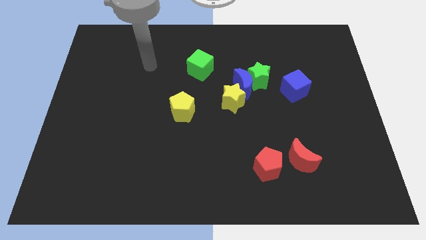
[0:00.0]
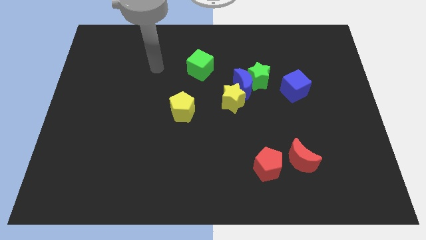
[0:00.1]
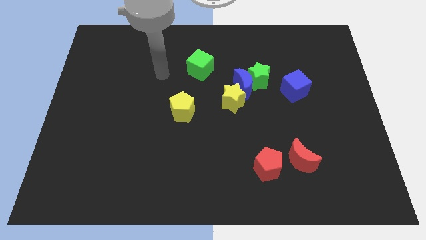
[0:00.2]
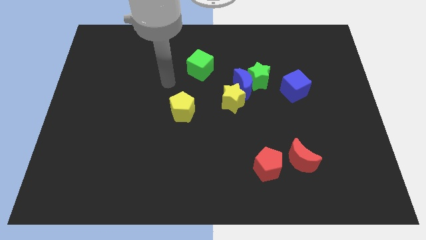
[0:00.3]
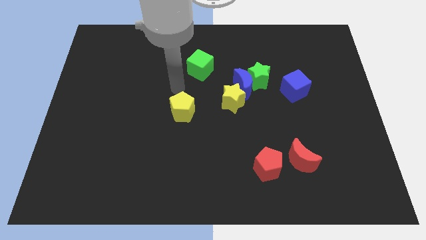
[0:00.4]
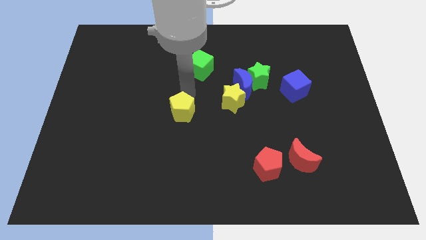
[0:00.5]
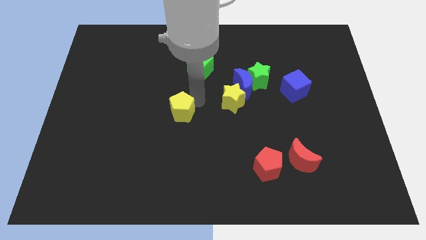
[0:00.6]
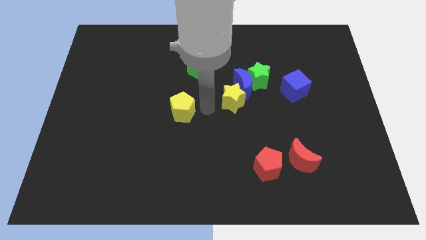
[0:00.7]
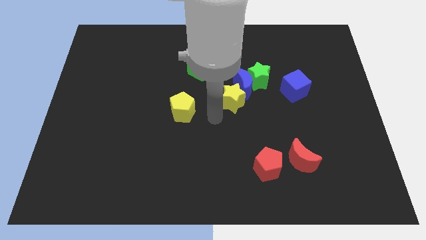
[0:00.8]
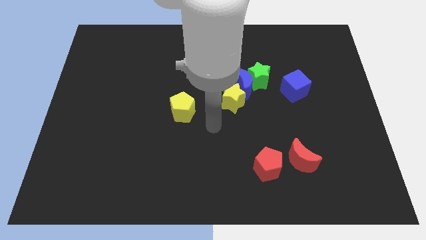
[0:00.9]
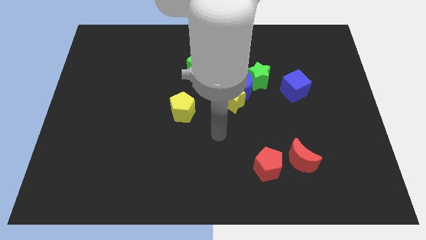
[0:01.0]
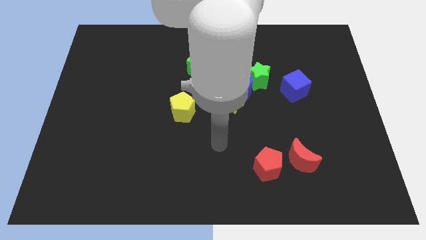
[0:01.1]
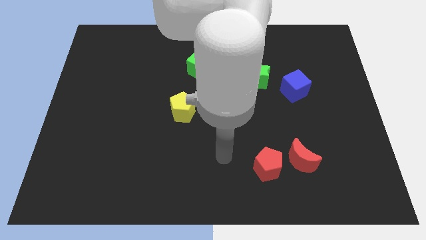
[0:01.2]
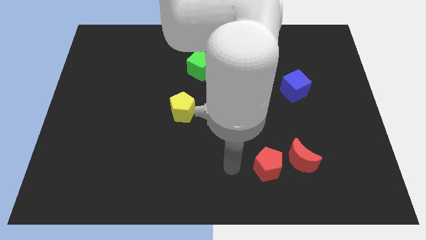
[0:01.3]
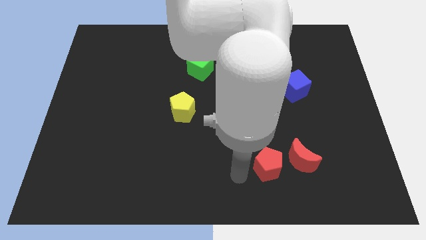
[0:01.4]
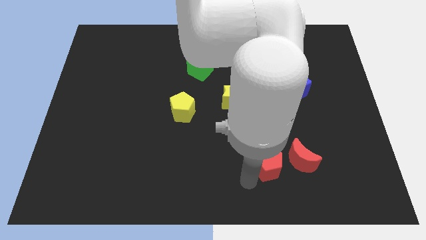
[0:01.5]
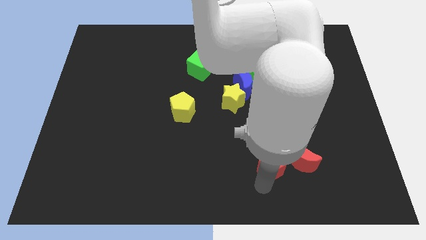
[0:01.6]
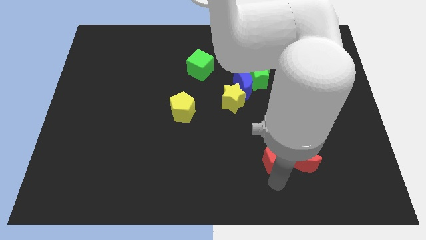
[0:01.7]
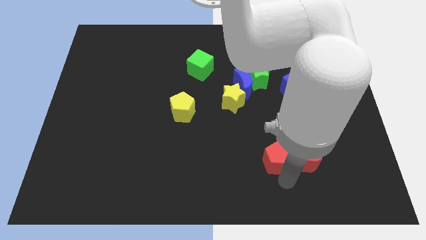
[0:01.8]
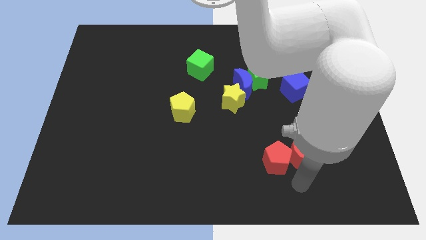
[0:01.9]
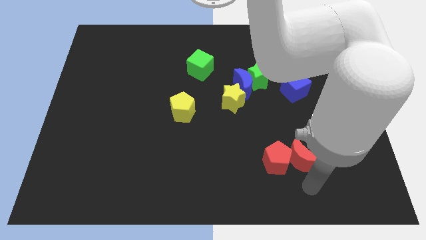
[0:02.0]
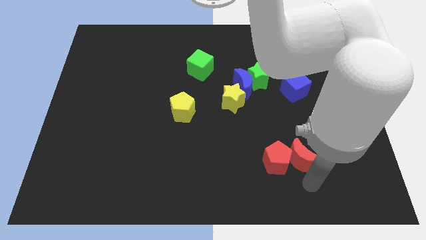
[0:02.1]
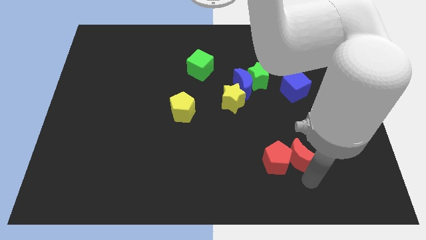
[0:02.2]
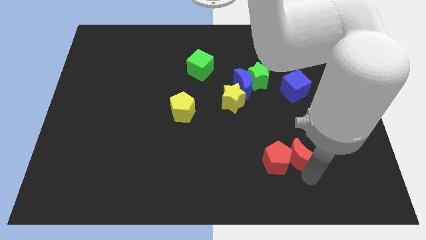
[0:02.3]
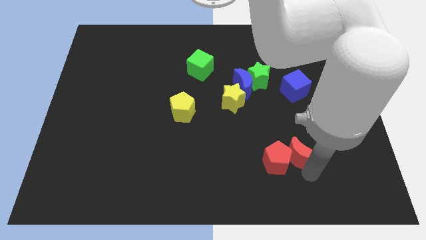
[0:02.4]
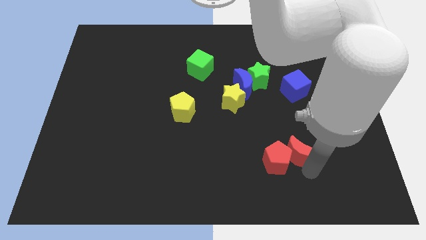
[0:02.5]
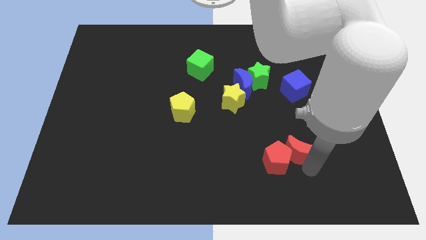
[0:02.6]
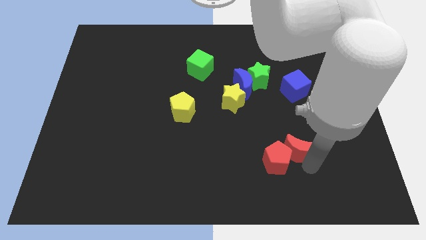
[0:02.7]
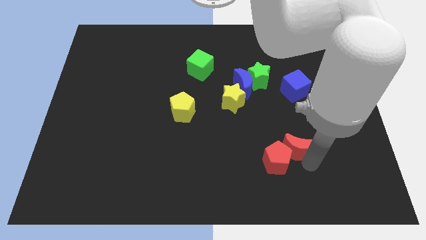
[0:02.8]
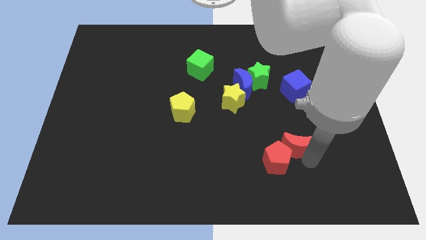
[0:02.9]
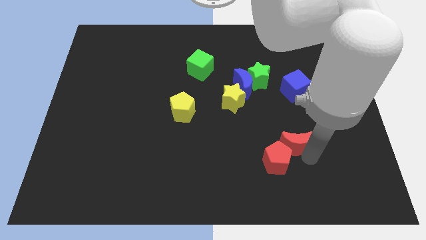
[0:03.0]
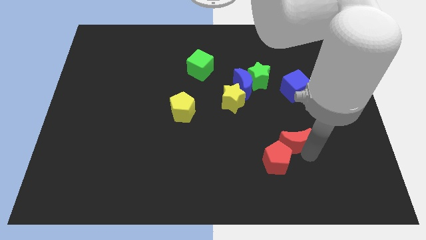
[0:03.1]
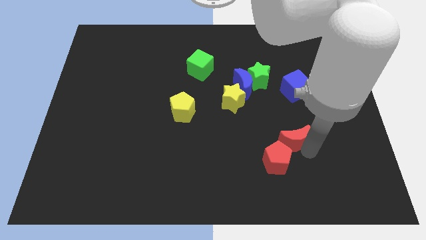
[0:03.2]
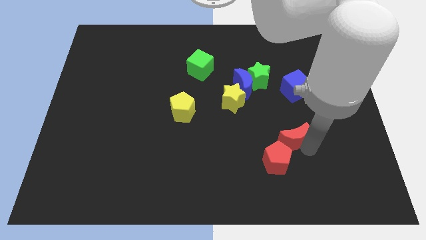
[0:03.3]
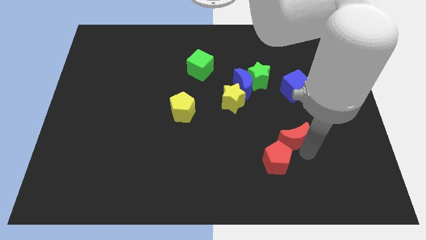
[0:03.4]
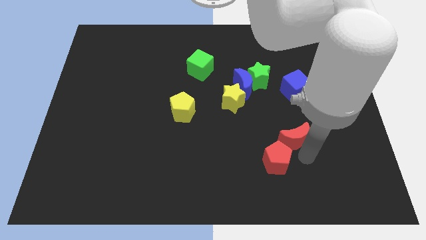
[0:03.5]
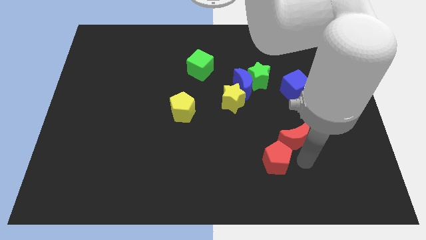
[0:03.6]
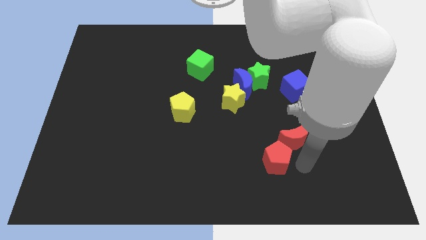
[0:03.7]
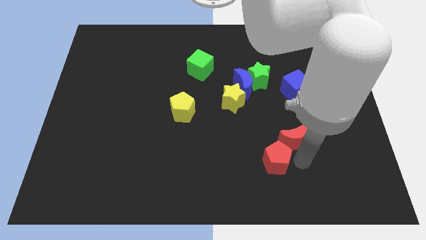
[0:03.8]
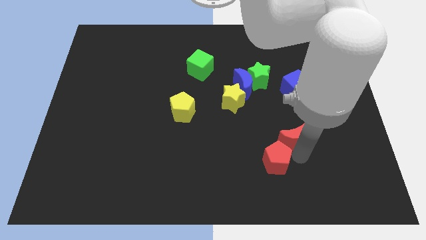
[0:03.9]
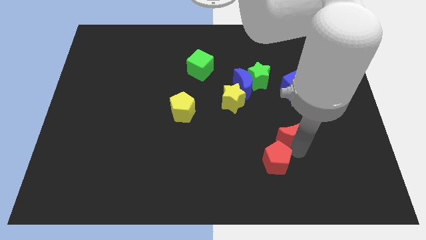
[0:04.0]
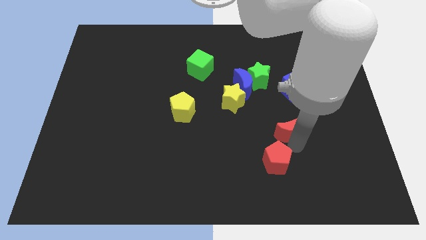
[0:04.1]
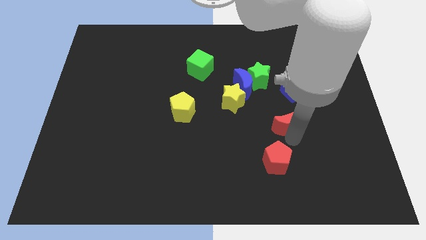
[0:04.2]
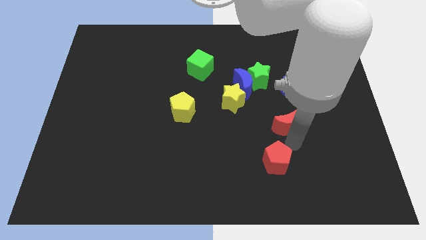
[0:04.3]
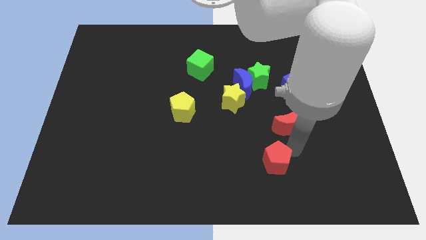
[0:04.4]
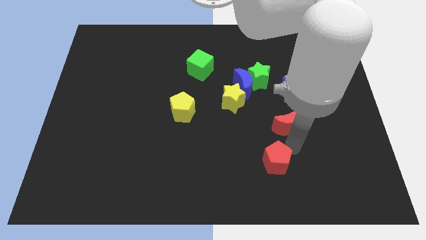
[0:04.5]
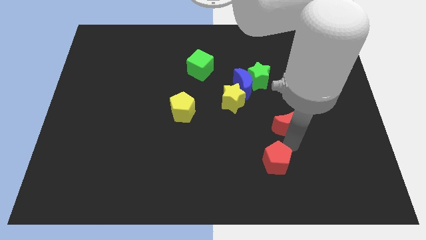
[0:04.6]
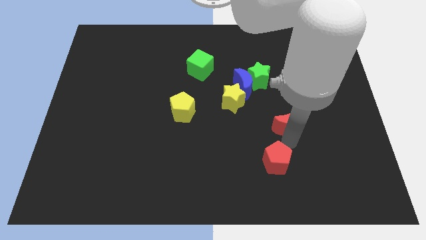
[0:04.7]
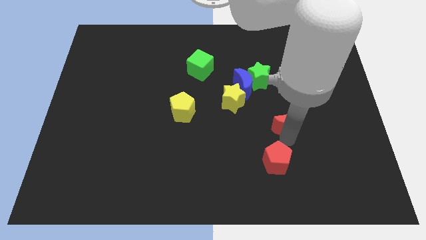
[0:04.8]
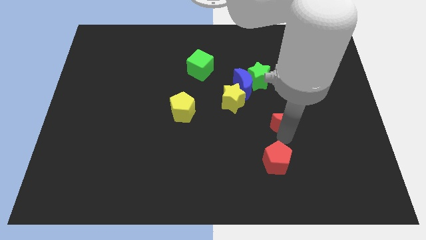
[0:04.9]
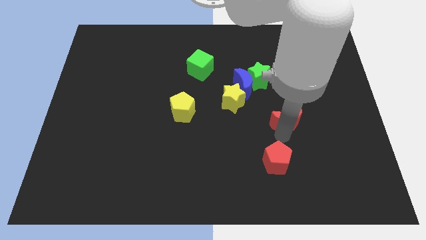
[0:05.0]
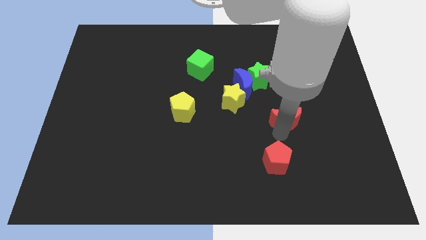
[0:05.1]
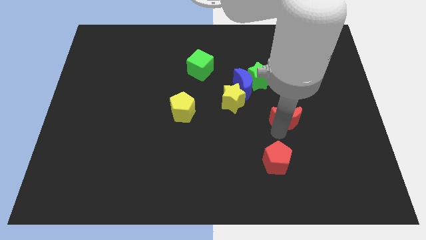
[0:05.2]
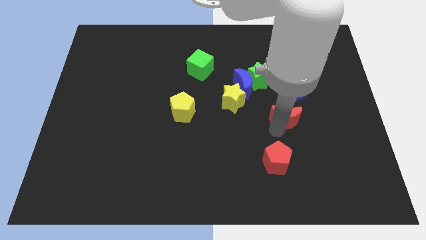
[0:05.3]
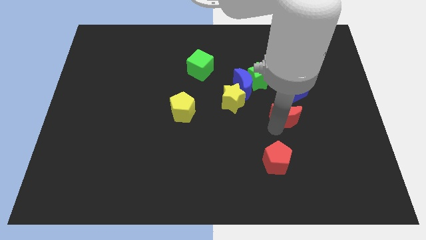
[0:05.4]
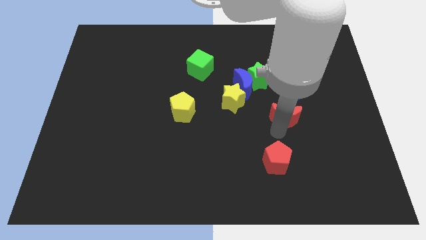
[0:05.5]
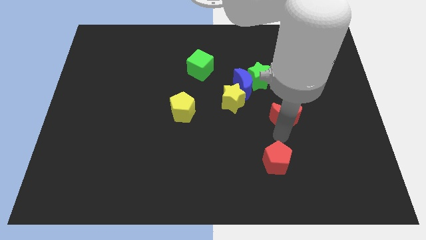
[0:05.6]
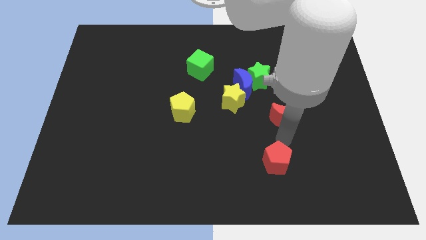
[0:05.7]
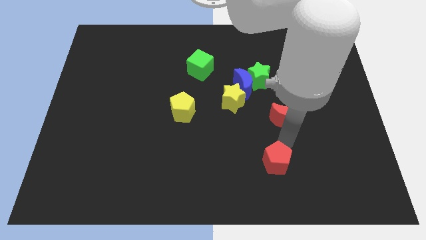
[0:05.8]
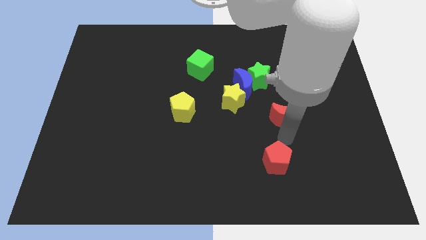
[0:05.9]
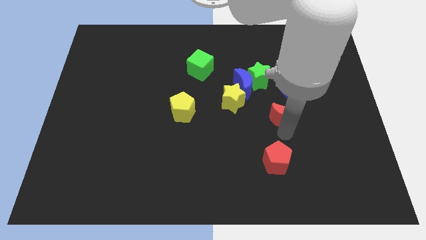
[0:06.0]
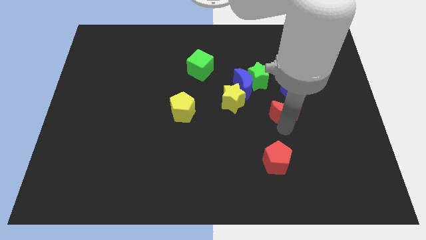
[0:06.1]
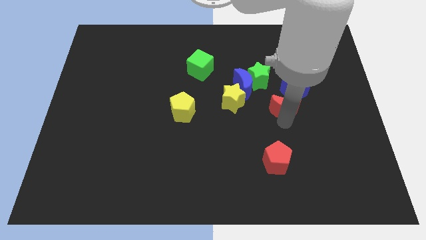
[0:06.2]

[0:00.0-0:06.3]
put the red moon to the bottom right of the green star

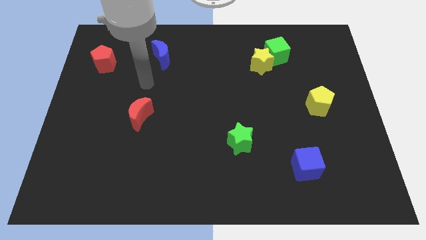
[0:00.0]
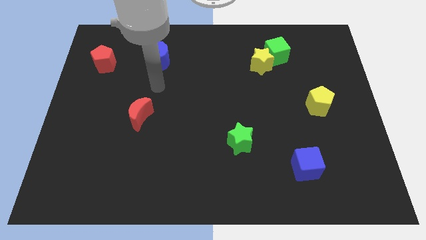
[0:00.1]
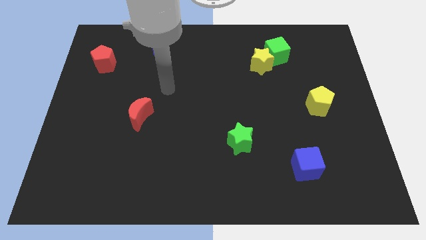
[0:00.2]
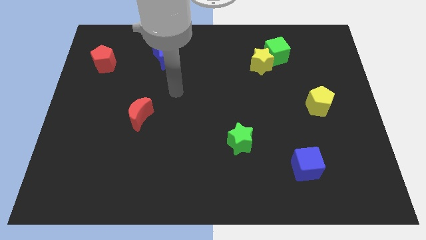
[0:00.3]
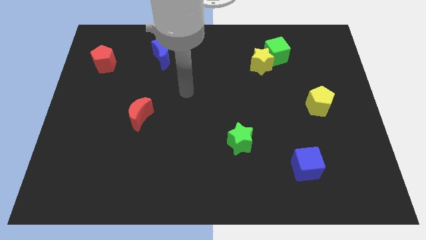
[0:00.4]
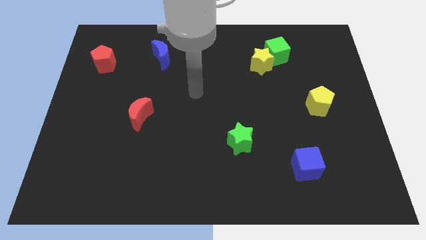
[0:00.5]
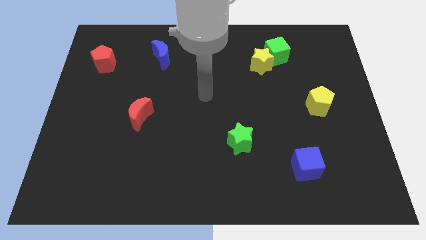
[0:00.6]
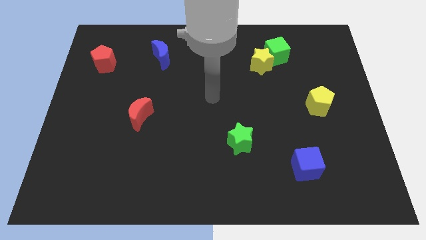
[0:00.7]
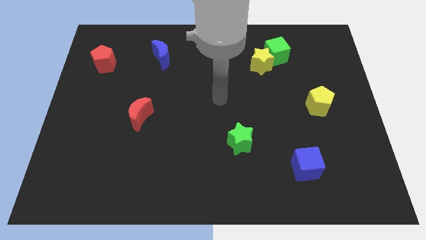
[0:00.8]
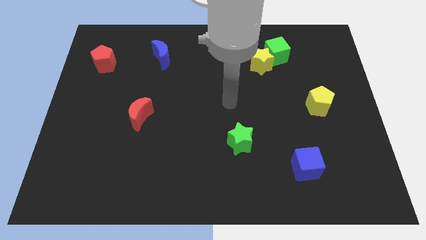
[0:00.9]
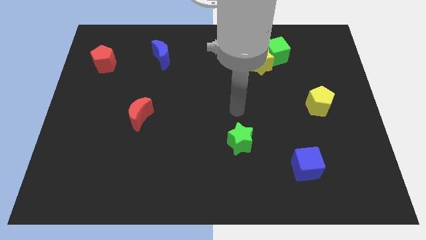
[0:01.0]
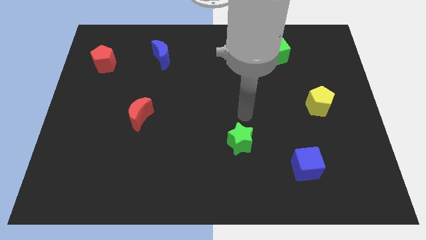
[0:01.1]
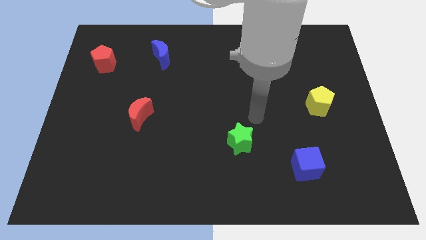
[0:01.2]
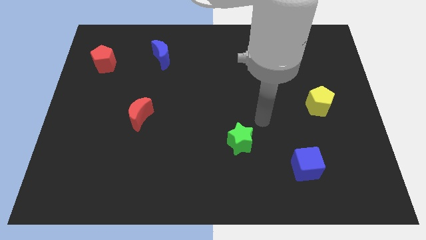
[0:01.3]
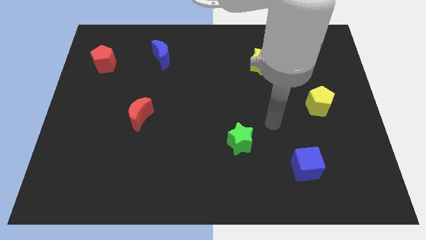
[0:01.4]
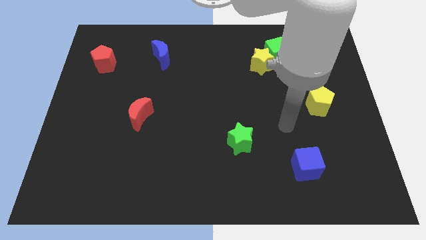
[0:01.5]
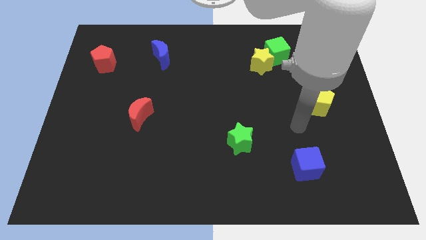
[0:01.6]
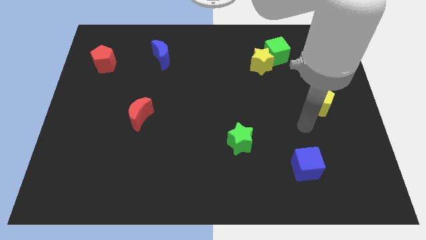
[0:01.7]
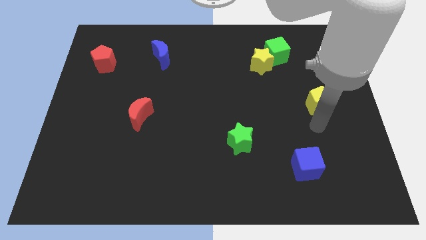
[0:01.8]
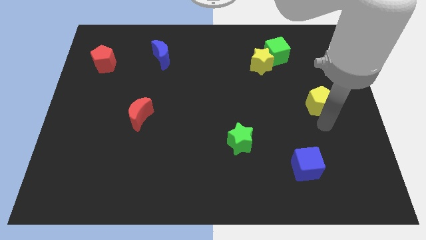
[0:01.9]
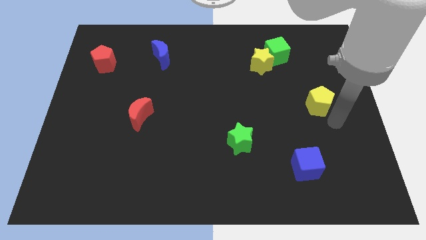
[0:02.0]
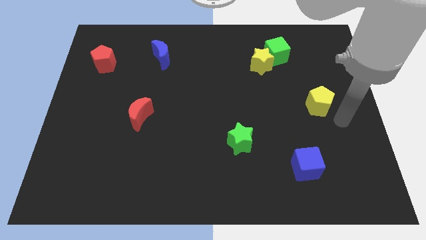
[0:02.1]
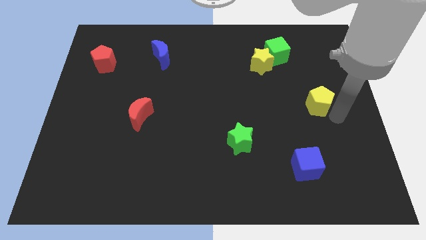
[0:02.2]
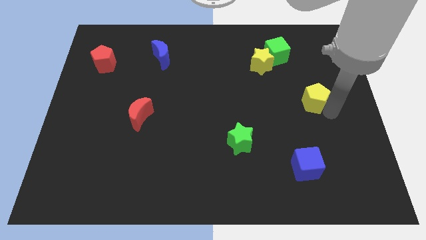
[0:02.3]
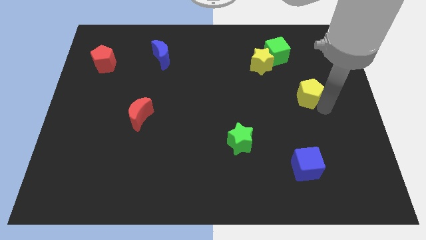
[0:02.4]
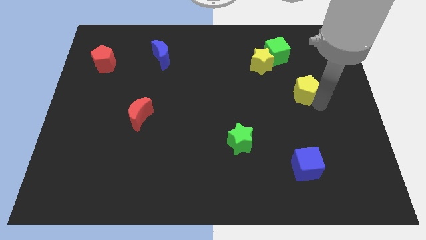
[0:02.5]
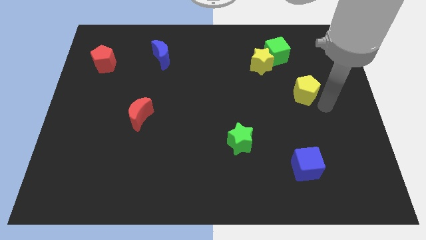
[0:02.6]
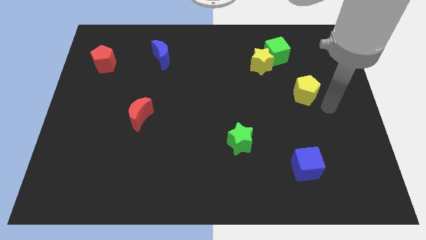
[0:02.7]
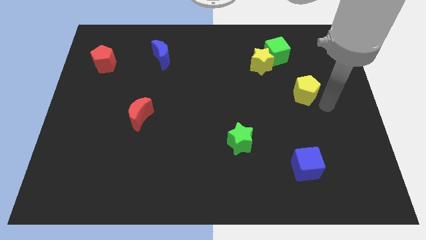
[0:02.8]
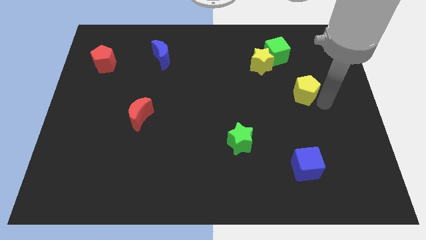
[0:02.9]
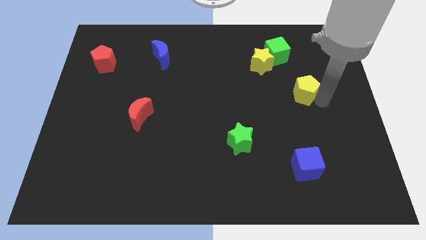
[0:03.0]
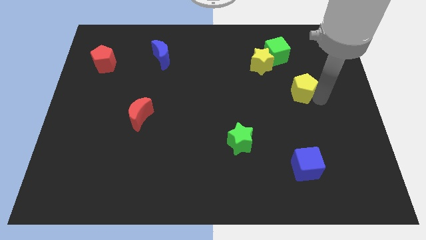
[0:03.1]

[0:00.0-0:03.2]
slide the yellow pentagon to the bottom right of the yellow star
